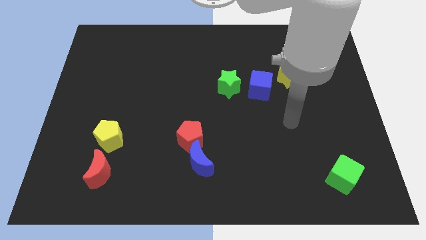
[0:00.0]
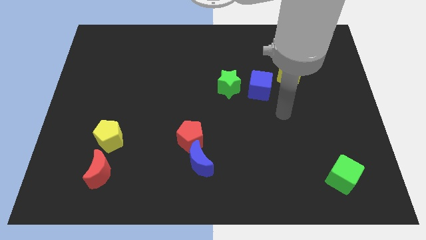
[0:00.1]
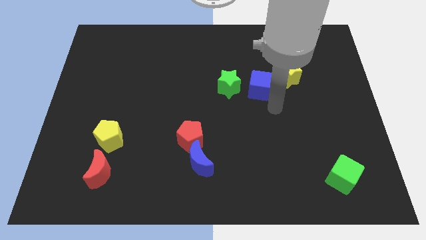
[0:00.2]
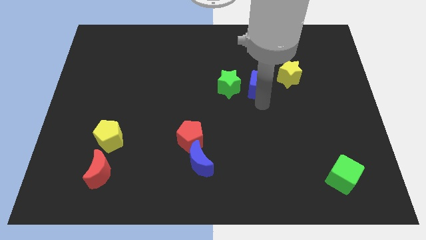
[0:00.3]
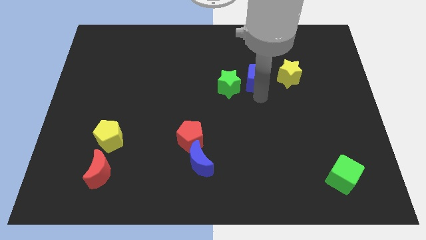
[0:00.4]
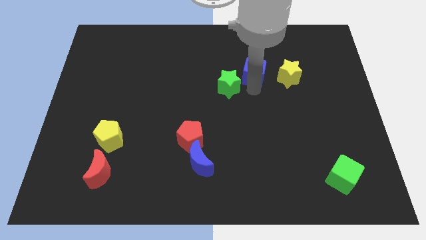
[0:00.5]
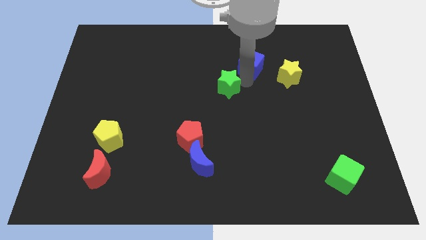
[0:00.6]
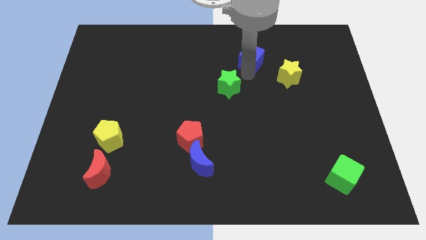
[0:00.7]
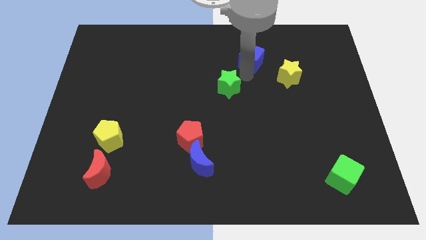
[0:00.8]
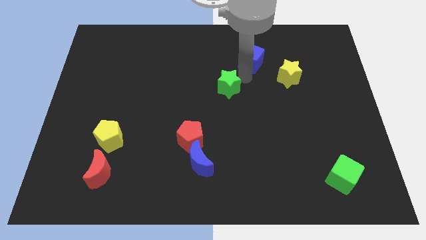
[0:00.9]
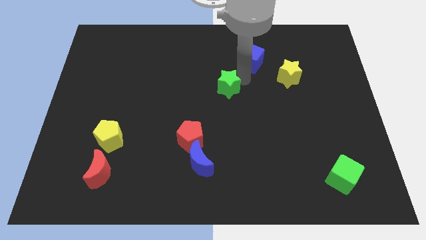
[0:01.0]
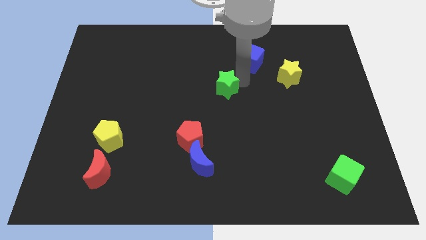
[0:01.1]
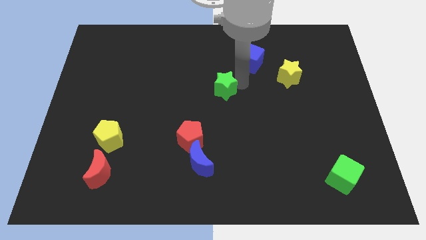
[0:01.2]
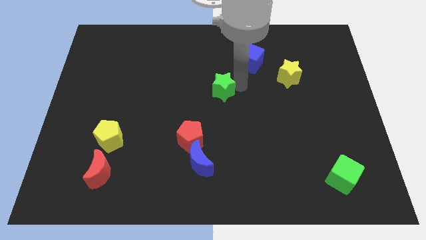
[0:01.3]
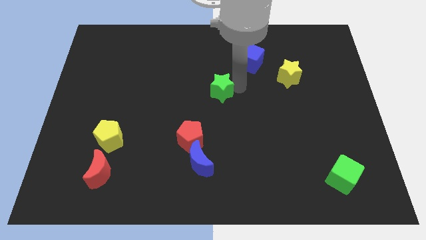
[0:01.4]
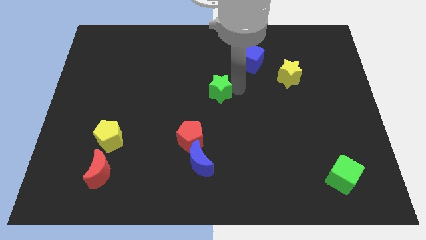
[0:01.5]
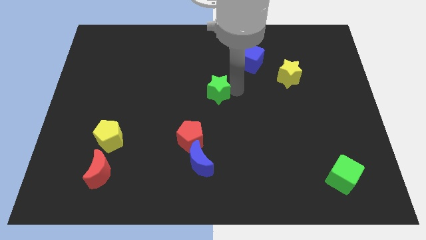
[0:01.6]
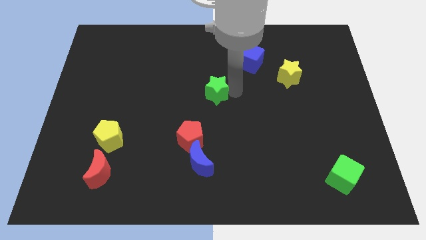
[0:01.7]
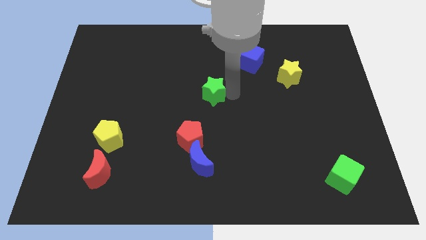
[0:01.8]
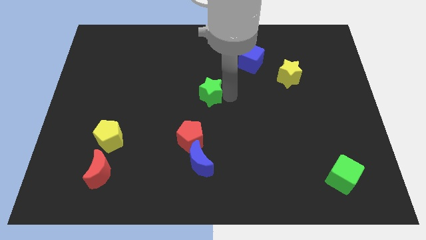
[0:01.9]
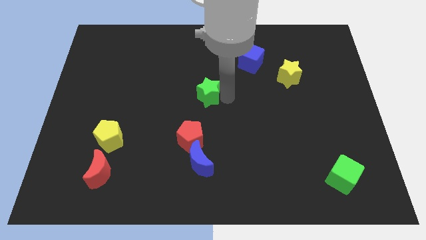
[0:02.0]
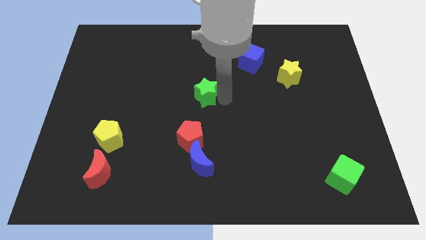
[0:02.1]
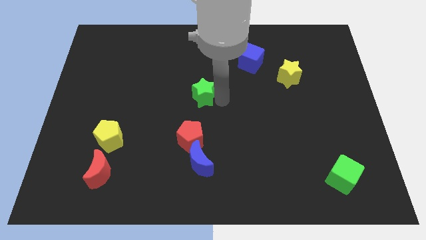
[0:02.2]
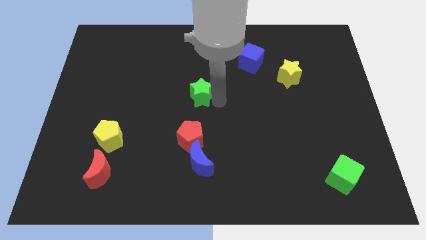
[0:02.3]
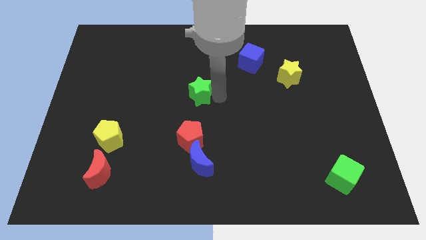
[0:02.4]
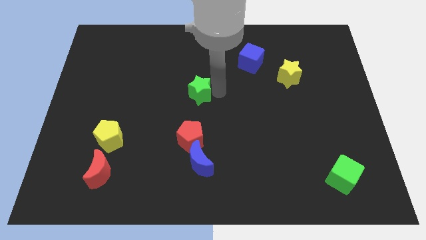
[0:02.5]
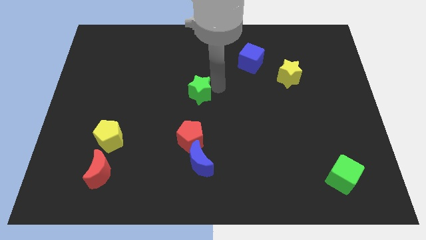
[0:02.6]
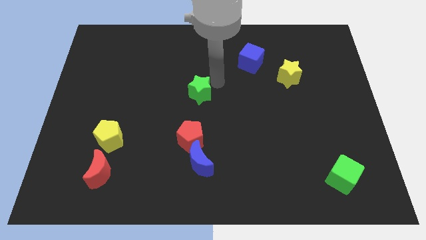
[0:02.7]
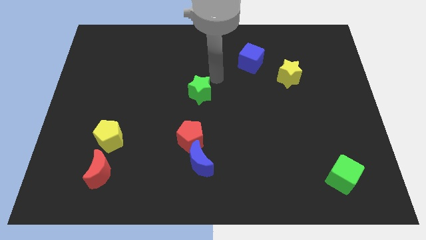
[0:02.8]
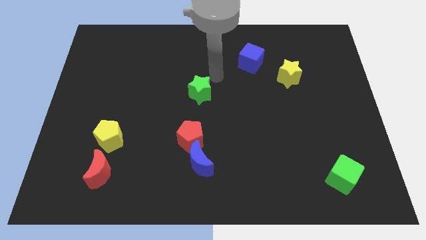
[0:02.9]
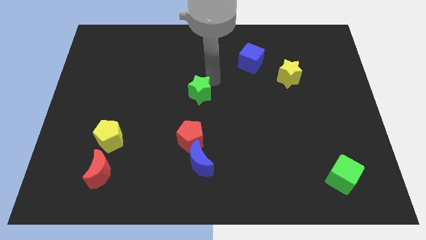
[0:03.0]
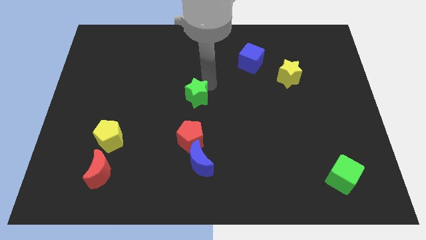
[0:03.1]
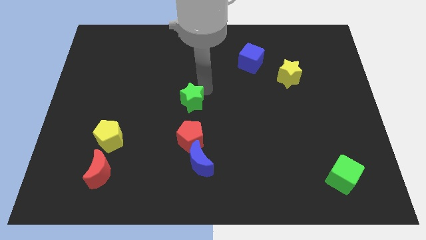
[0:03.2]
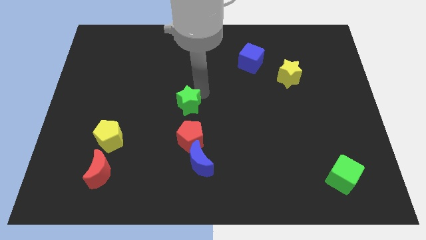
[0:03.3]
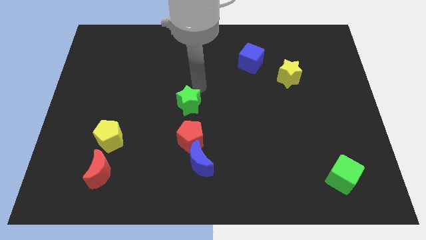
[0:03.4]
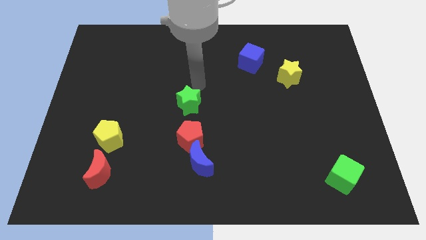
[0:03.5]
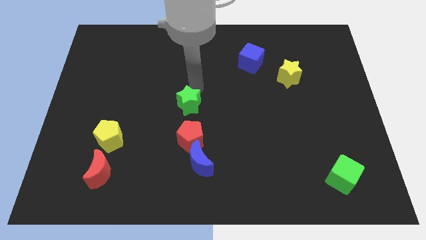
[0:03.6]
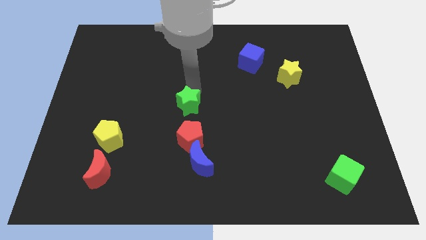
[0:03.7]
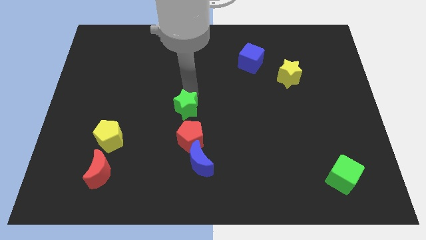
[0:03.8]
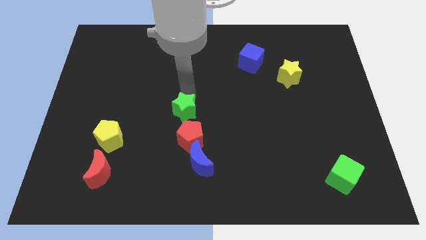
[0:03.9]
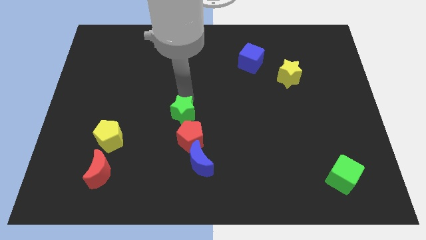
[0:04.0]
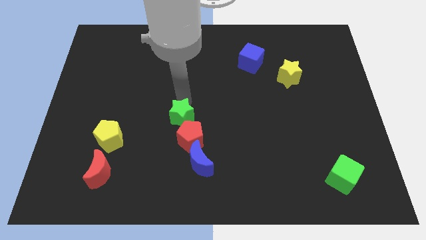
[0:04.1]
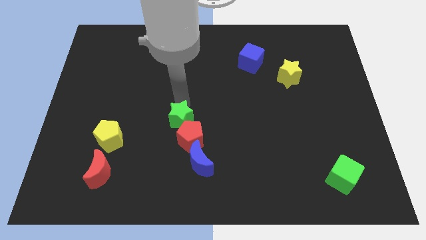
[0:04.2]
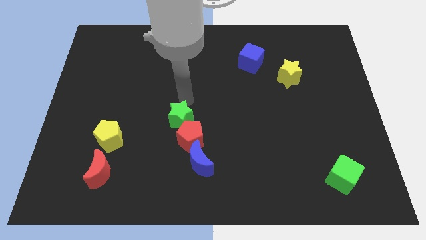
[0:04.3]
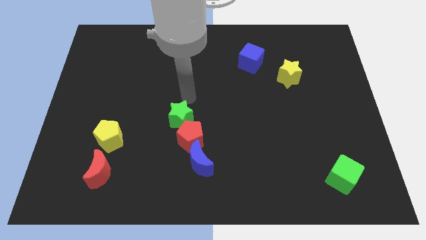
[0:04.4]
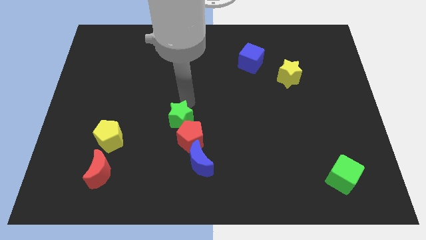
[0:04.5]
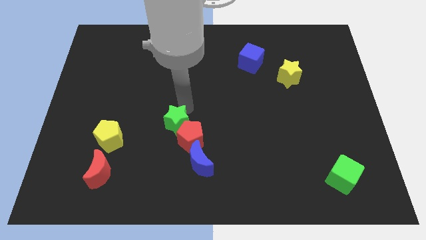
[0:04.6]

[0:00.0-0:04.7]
push the green star diagonally up and to the left of the blue moon

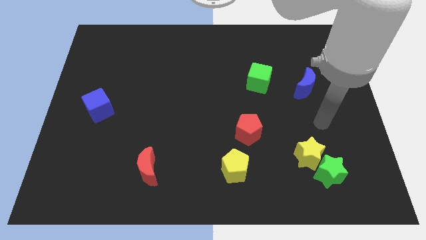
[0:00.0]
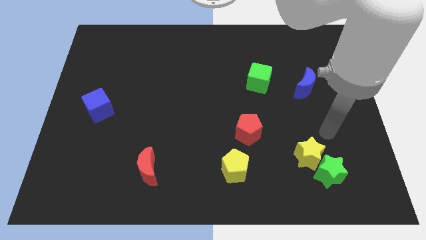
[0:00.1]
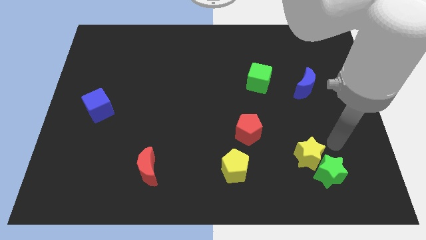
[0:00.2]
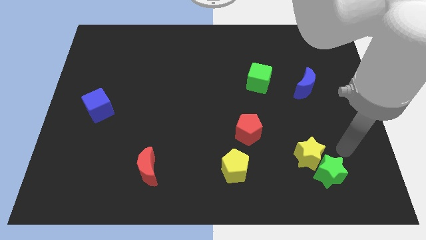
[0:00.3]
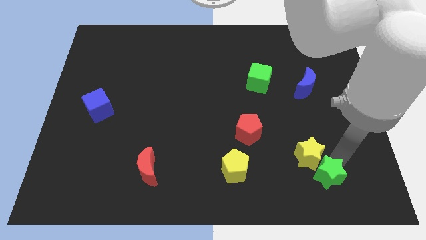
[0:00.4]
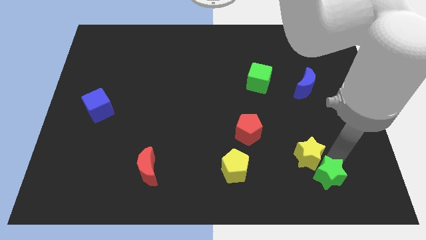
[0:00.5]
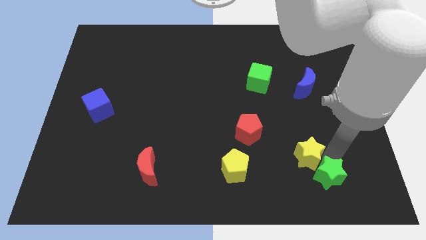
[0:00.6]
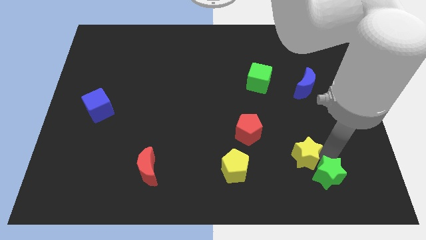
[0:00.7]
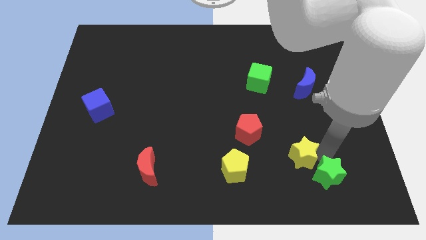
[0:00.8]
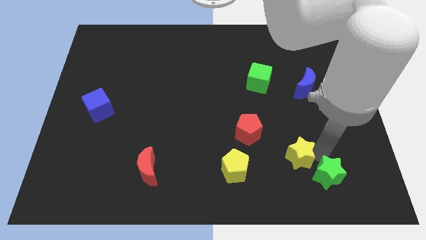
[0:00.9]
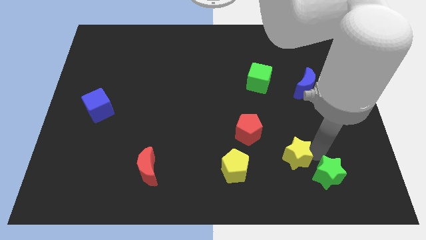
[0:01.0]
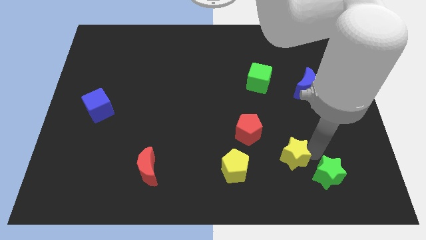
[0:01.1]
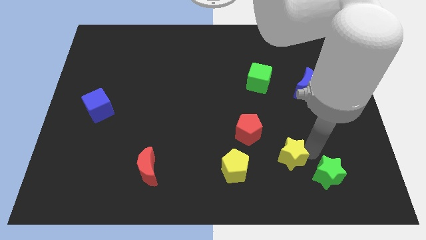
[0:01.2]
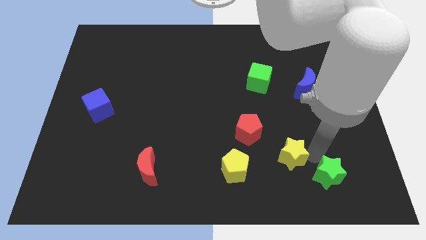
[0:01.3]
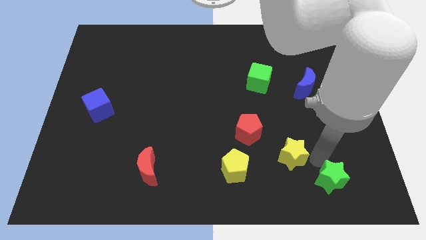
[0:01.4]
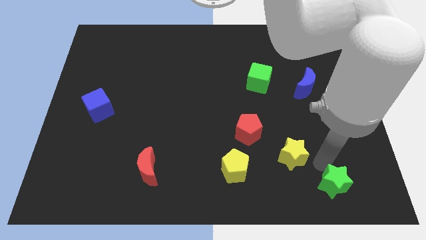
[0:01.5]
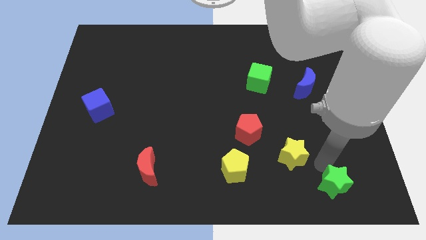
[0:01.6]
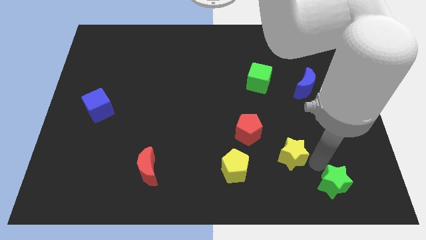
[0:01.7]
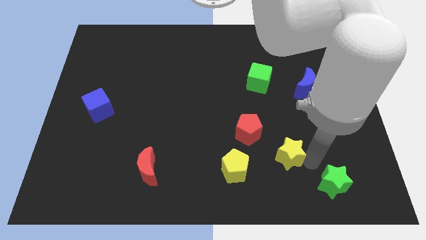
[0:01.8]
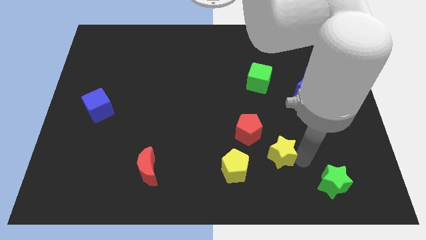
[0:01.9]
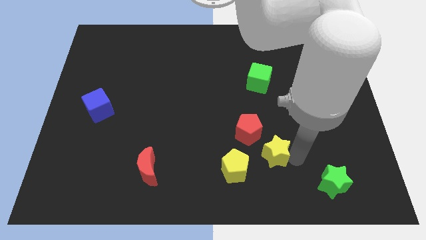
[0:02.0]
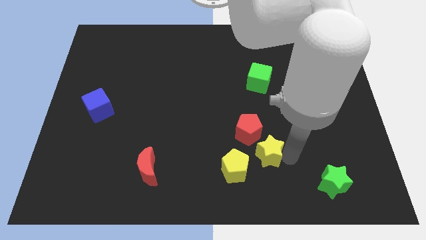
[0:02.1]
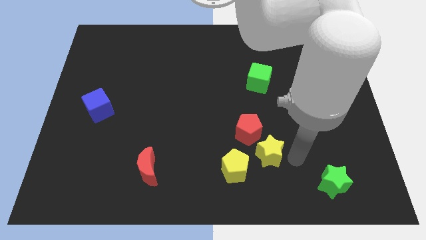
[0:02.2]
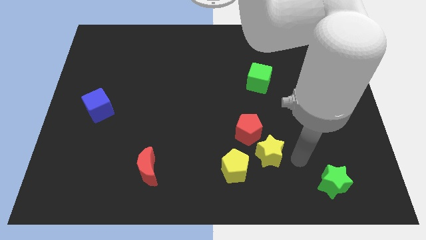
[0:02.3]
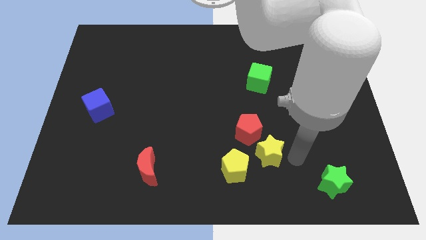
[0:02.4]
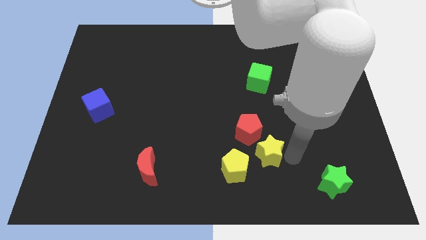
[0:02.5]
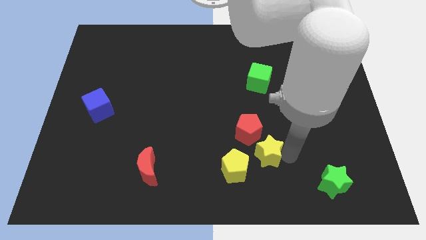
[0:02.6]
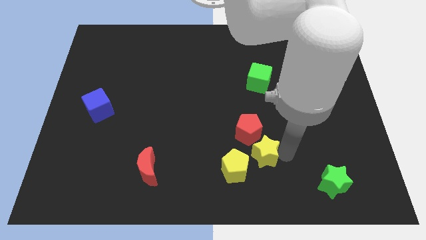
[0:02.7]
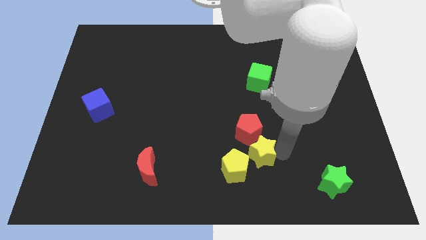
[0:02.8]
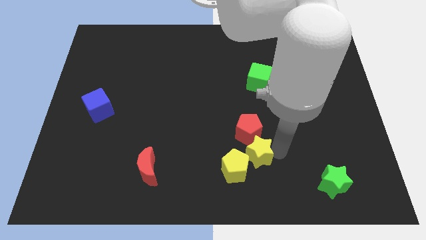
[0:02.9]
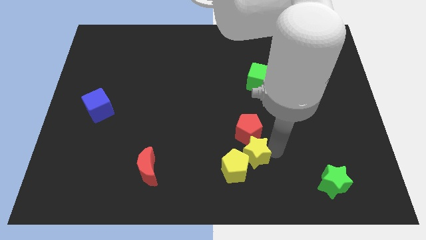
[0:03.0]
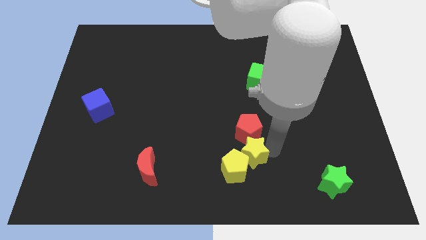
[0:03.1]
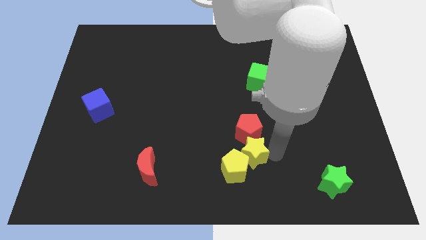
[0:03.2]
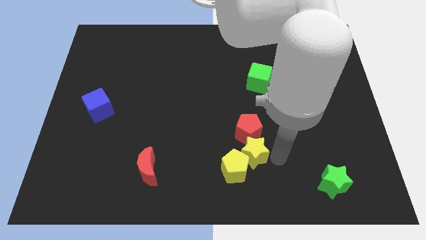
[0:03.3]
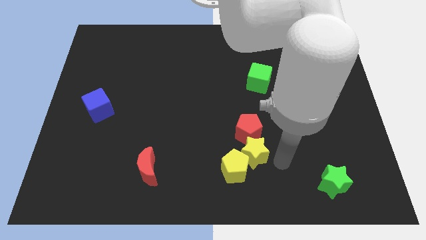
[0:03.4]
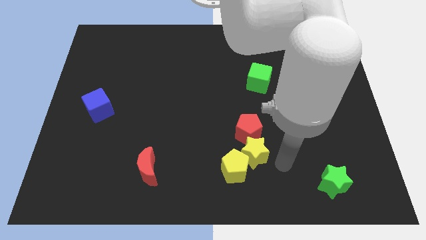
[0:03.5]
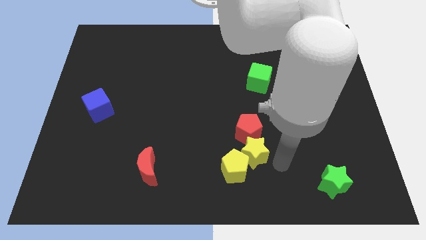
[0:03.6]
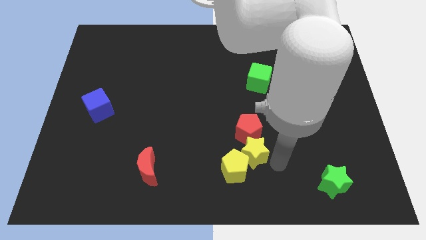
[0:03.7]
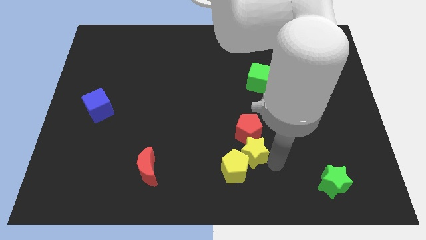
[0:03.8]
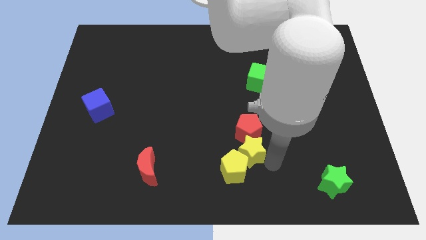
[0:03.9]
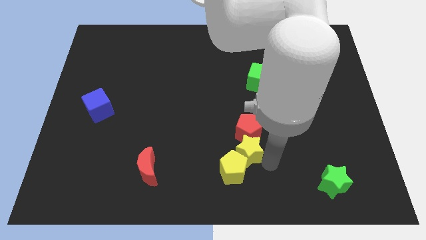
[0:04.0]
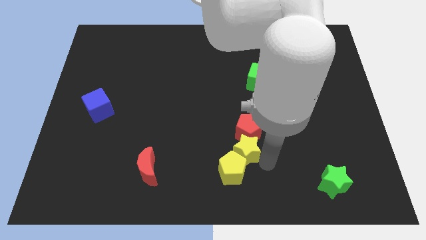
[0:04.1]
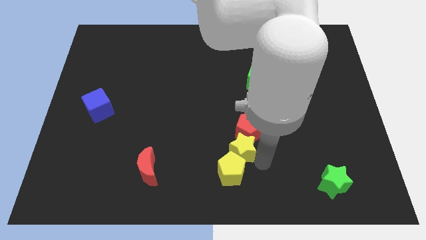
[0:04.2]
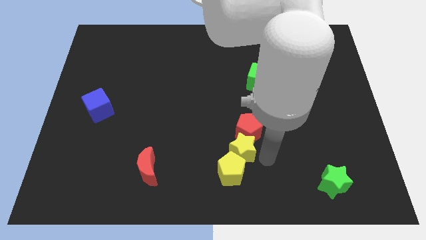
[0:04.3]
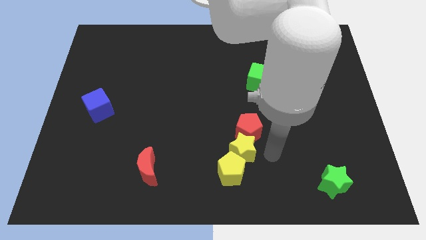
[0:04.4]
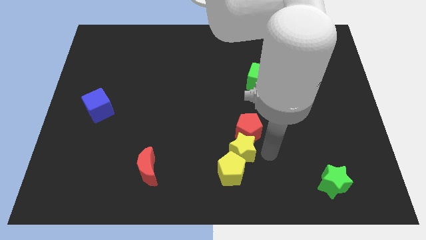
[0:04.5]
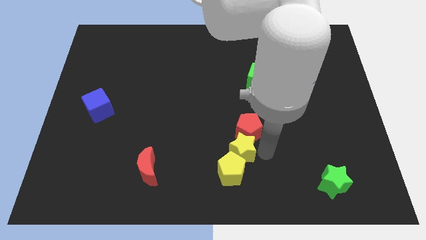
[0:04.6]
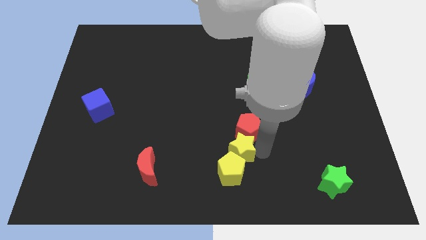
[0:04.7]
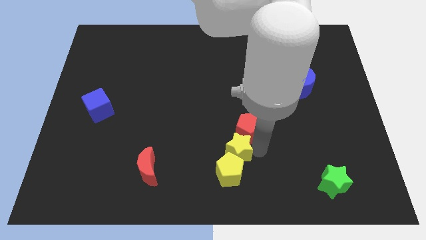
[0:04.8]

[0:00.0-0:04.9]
push the yellow star to the top left side of the yellow pentagon
